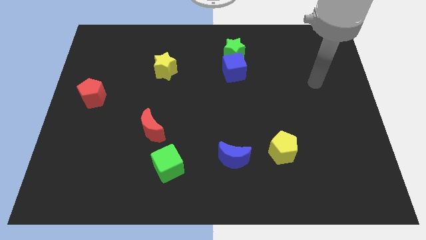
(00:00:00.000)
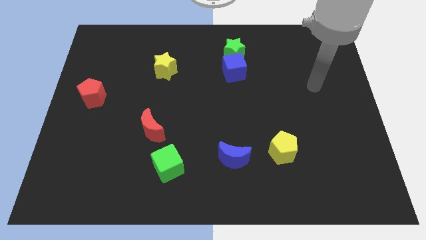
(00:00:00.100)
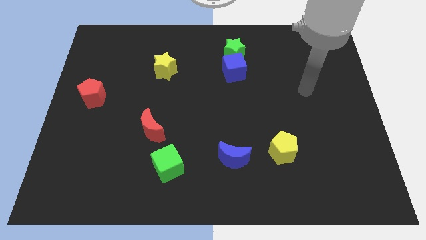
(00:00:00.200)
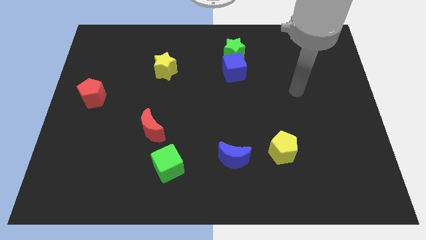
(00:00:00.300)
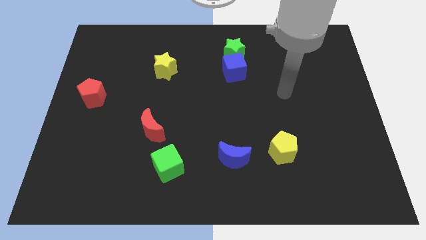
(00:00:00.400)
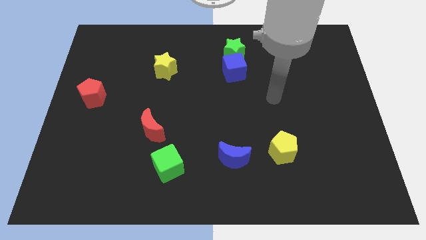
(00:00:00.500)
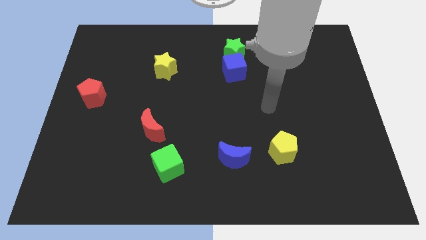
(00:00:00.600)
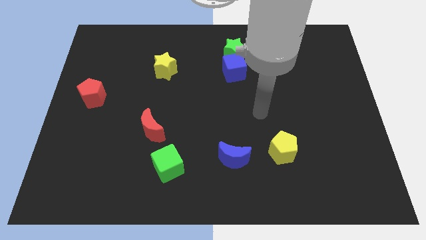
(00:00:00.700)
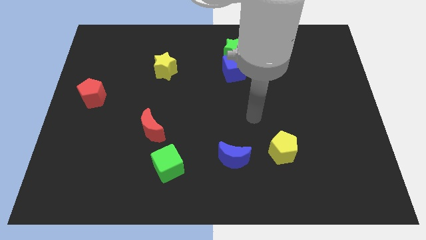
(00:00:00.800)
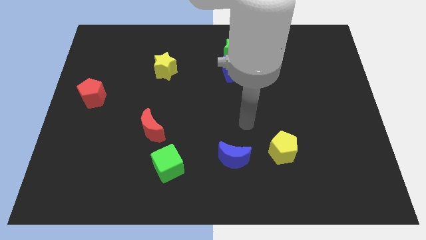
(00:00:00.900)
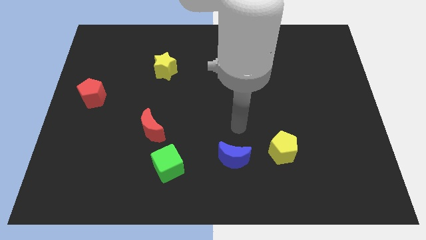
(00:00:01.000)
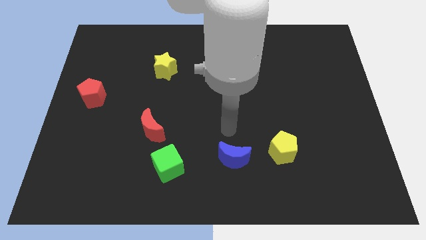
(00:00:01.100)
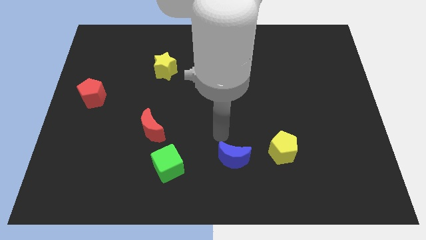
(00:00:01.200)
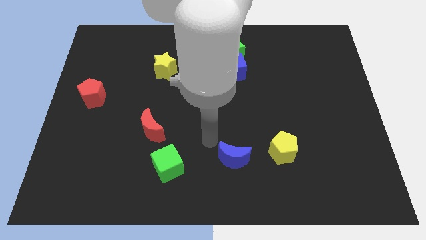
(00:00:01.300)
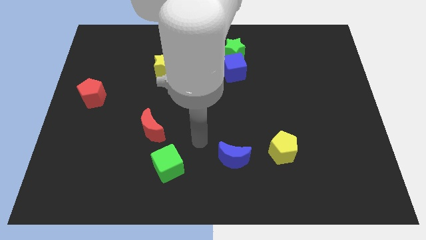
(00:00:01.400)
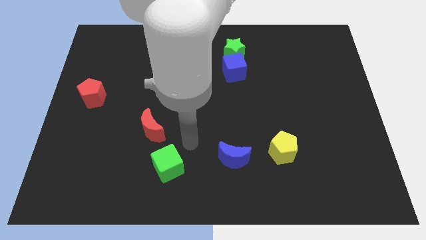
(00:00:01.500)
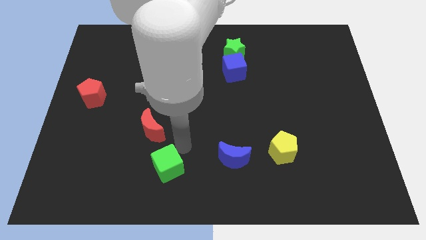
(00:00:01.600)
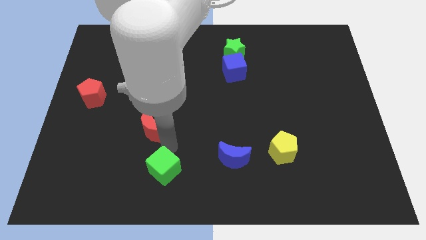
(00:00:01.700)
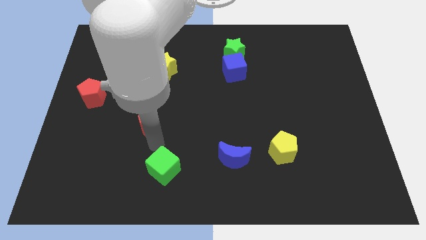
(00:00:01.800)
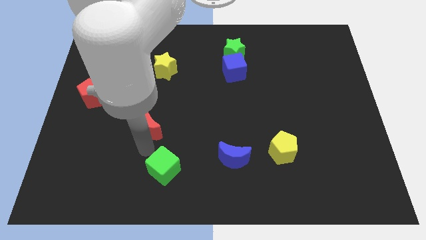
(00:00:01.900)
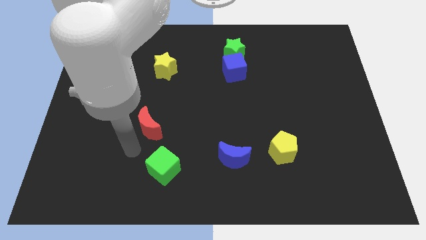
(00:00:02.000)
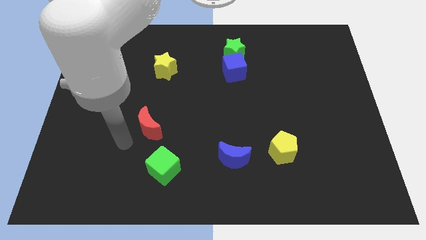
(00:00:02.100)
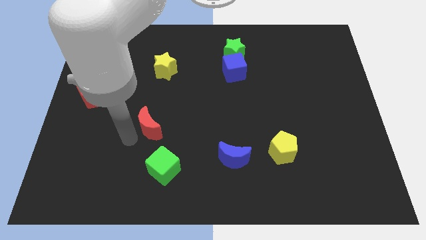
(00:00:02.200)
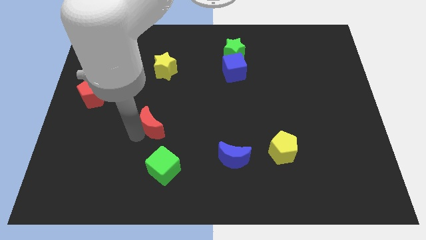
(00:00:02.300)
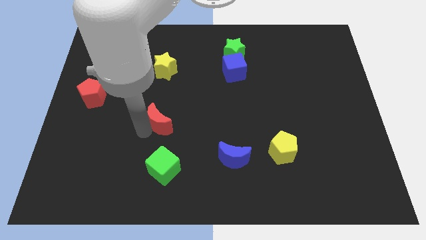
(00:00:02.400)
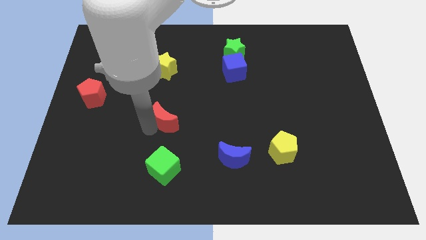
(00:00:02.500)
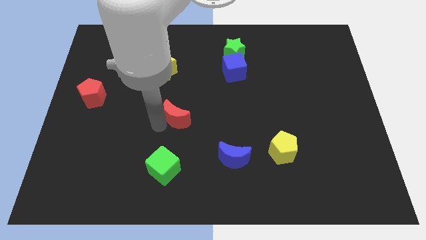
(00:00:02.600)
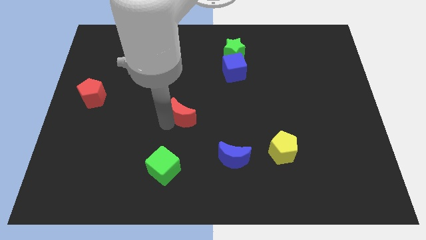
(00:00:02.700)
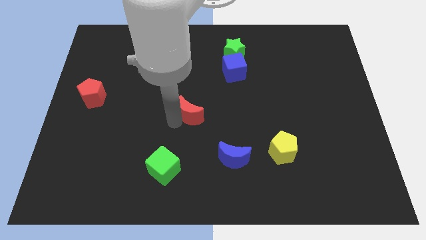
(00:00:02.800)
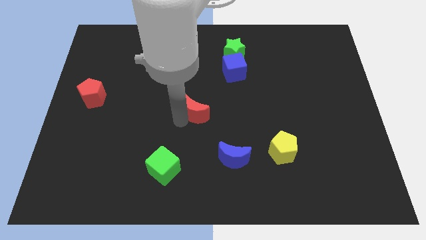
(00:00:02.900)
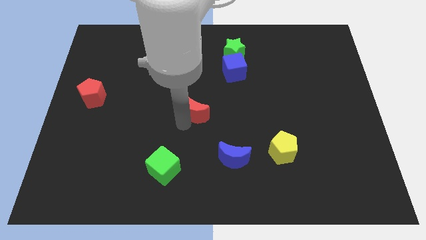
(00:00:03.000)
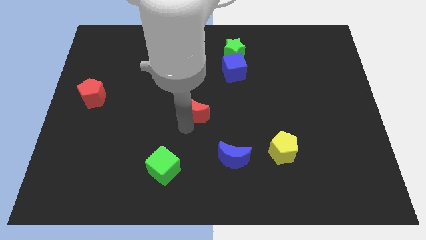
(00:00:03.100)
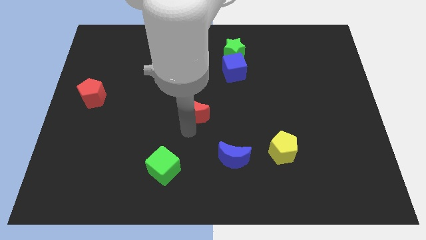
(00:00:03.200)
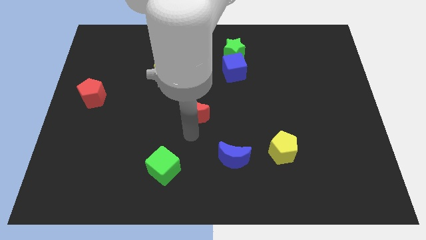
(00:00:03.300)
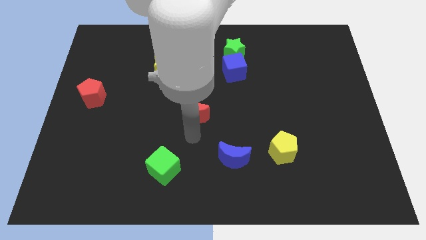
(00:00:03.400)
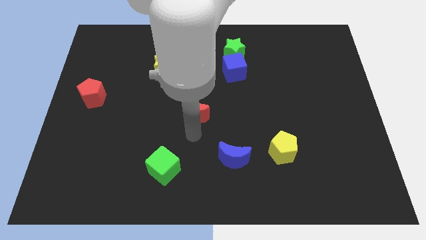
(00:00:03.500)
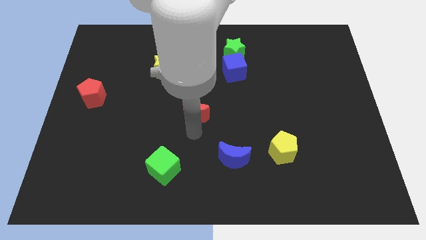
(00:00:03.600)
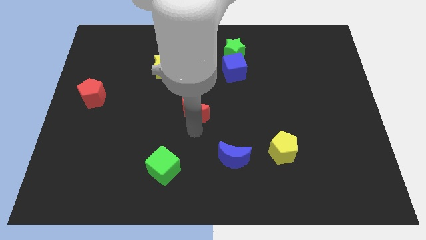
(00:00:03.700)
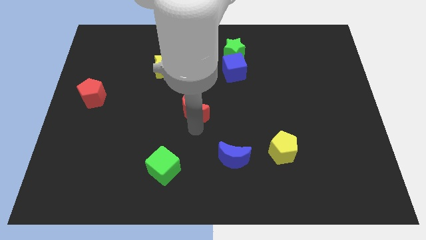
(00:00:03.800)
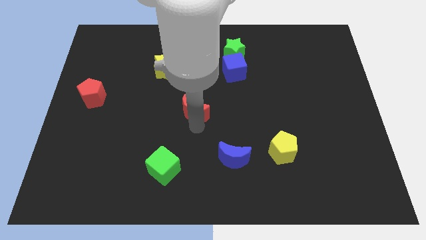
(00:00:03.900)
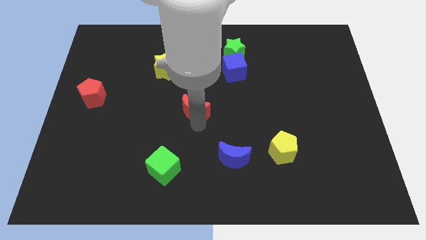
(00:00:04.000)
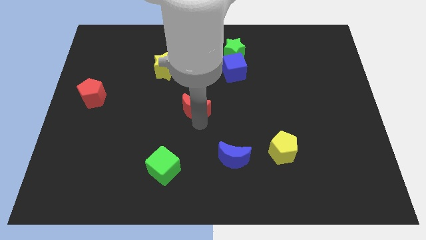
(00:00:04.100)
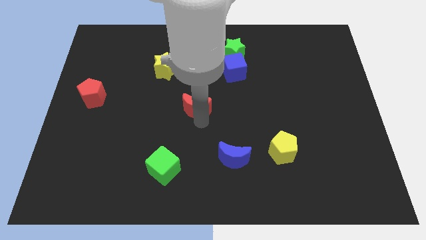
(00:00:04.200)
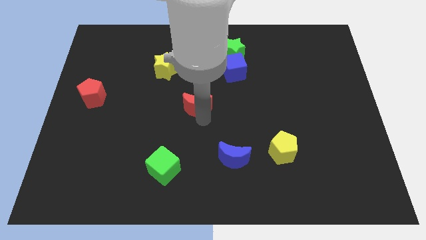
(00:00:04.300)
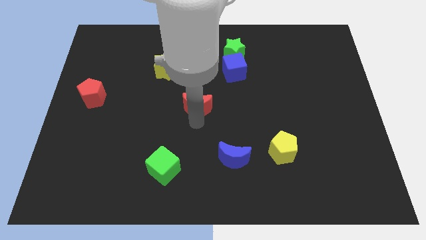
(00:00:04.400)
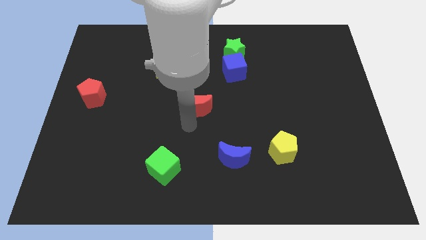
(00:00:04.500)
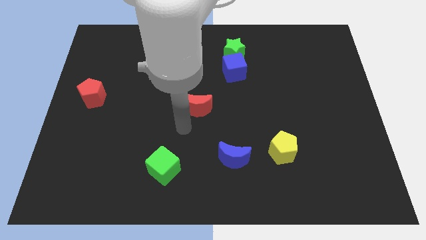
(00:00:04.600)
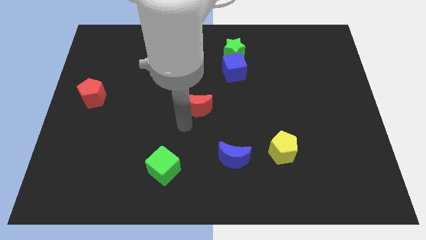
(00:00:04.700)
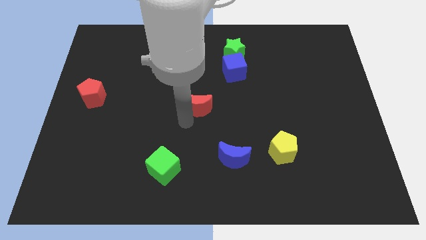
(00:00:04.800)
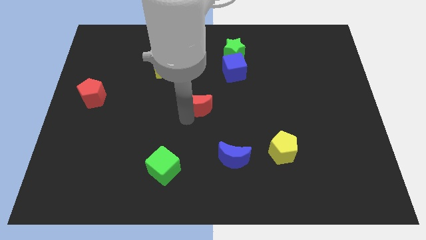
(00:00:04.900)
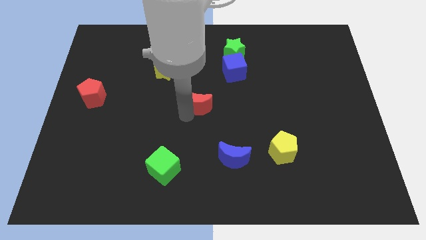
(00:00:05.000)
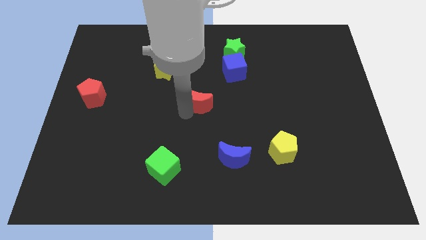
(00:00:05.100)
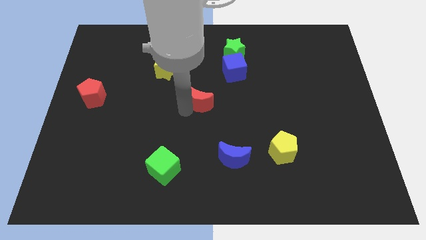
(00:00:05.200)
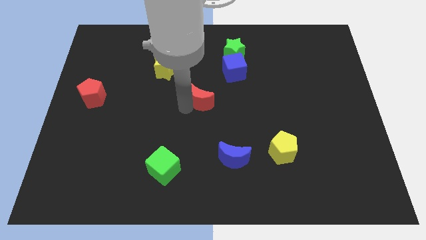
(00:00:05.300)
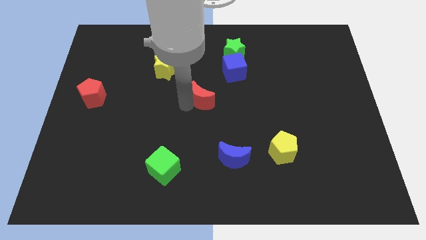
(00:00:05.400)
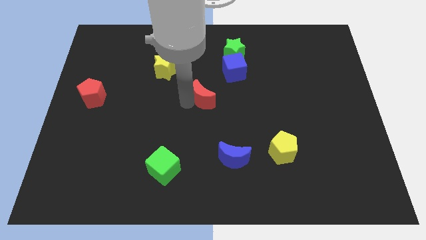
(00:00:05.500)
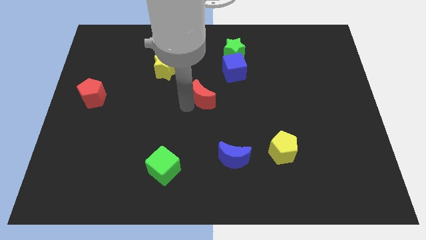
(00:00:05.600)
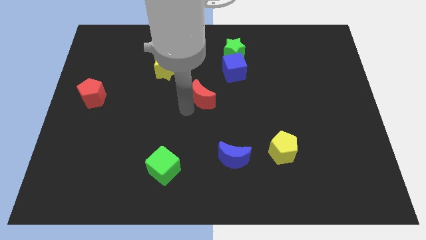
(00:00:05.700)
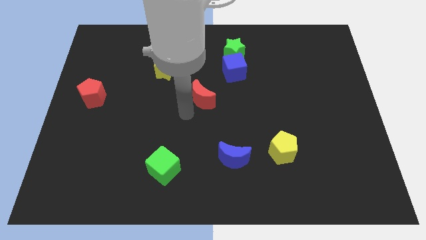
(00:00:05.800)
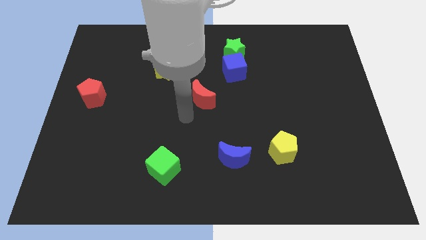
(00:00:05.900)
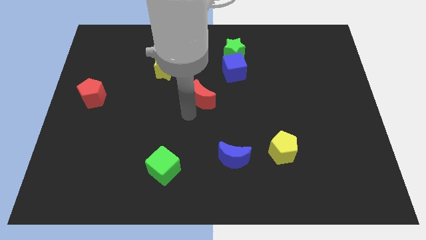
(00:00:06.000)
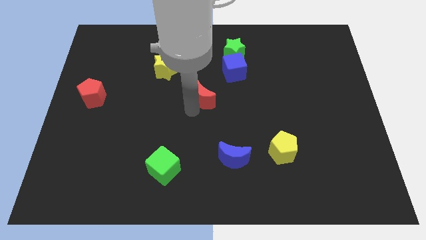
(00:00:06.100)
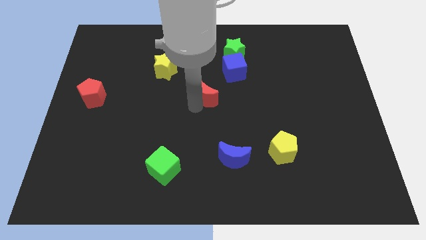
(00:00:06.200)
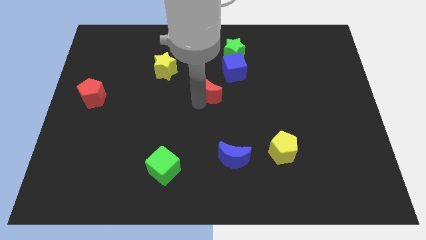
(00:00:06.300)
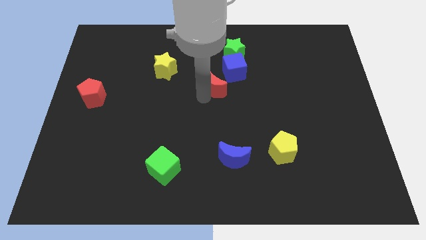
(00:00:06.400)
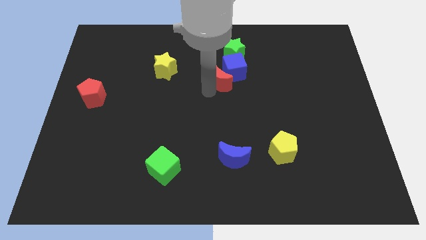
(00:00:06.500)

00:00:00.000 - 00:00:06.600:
put the red moon to the blue cube
